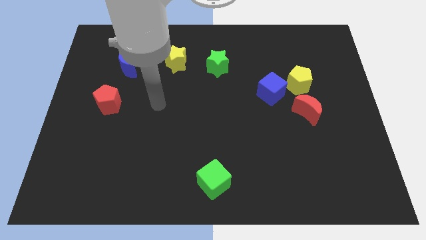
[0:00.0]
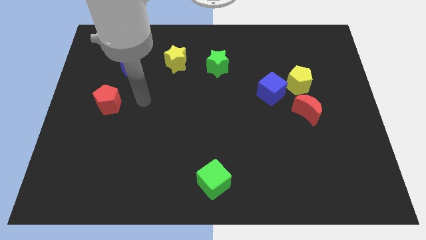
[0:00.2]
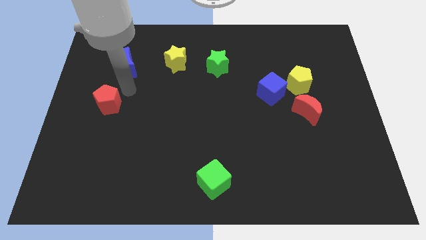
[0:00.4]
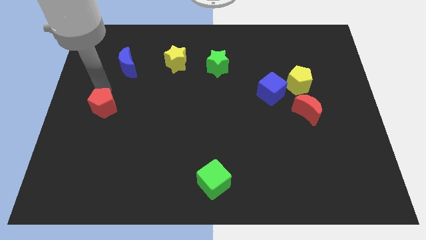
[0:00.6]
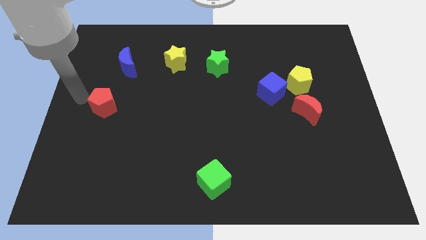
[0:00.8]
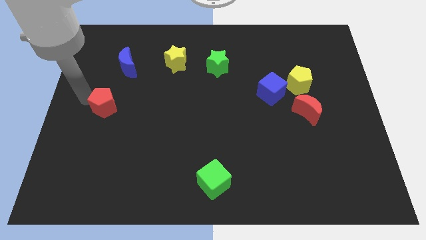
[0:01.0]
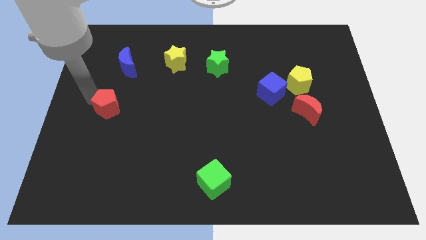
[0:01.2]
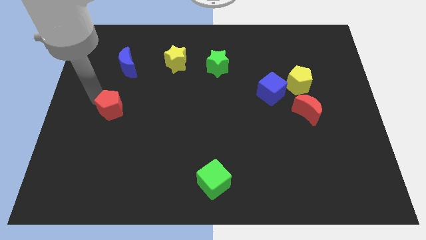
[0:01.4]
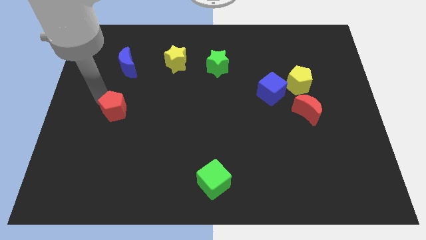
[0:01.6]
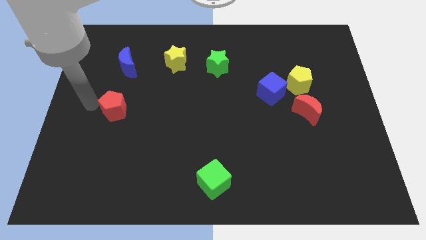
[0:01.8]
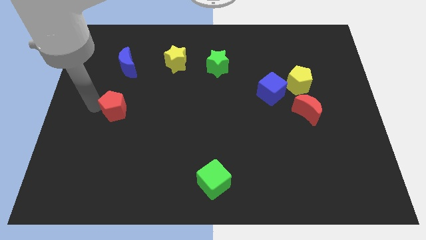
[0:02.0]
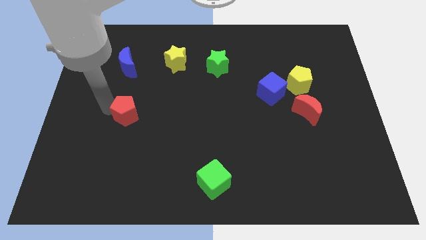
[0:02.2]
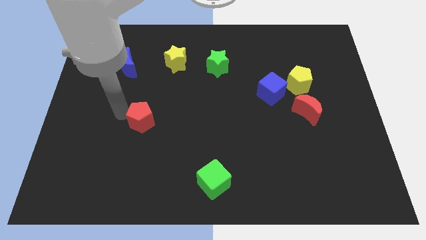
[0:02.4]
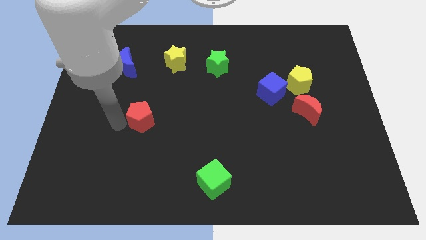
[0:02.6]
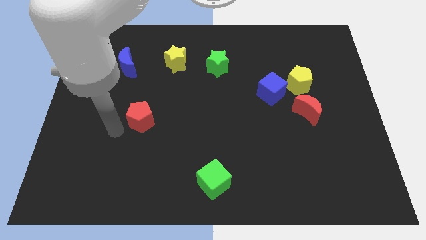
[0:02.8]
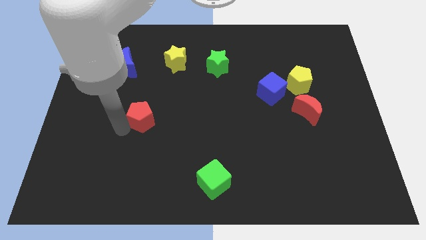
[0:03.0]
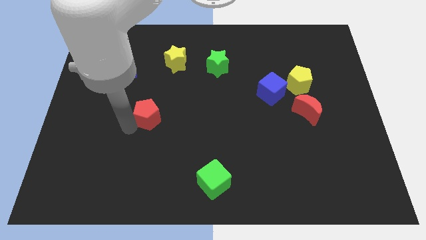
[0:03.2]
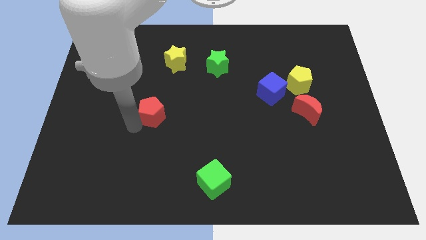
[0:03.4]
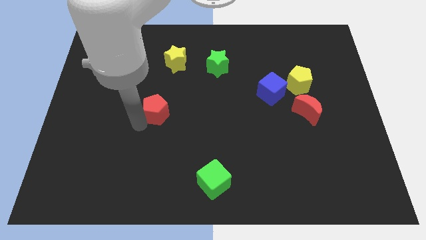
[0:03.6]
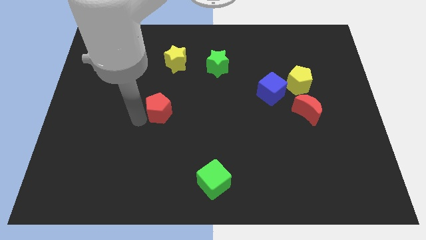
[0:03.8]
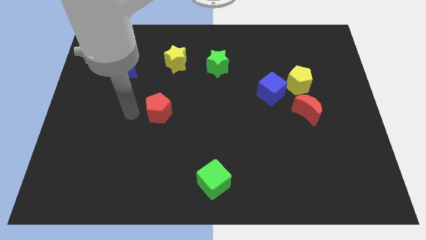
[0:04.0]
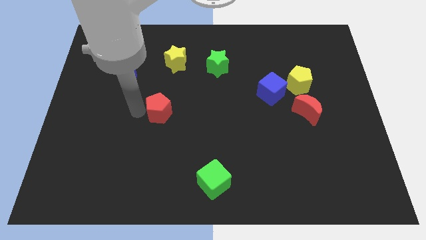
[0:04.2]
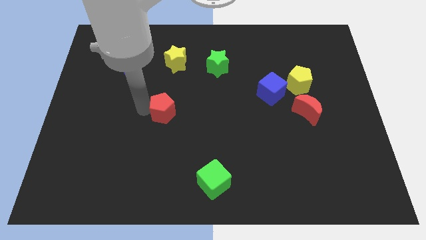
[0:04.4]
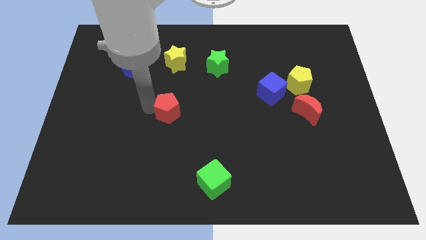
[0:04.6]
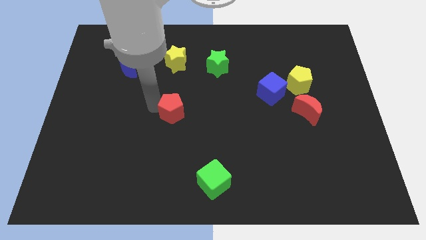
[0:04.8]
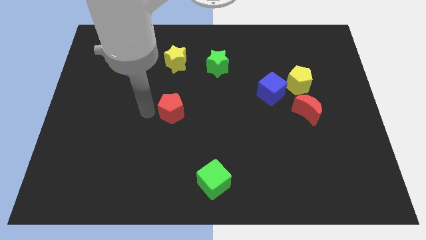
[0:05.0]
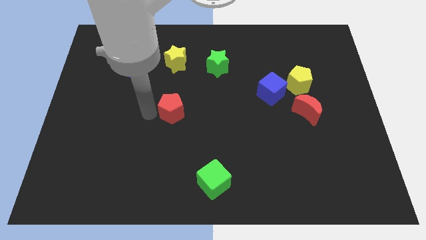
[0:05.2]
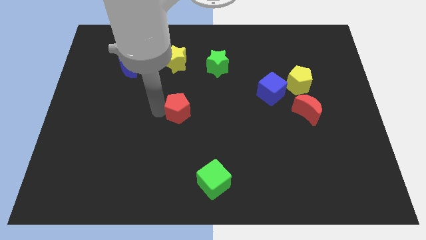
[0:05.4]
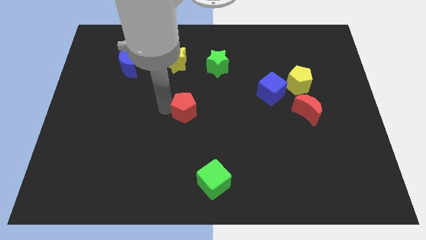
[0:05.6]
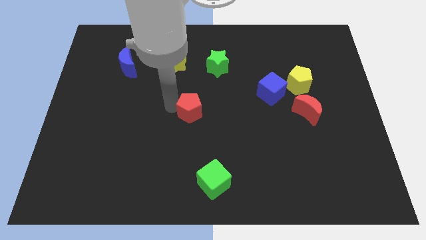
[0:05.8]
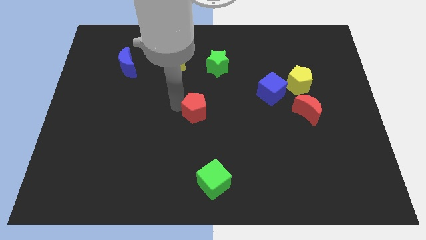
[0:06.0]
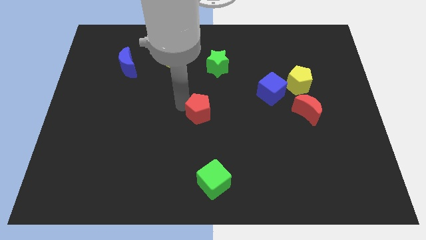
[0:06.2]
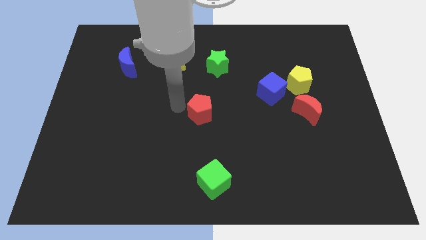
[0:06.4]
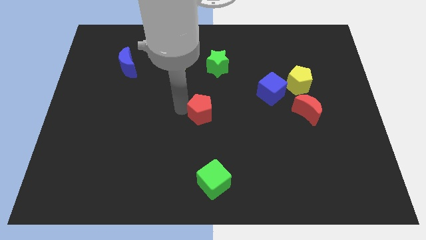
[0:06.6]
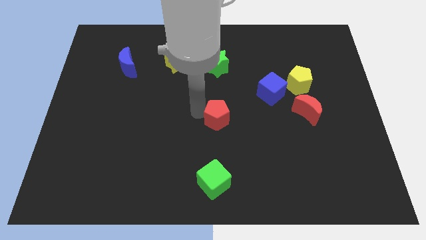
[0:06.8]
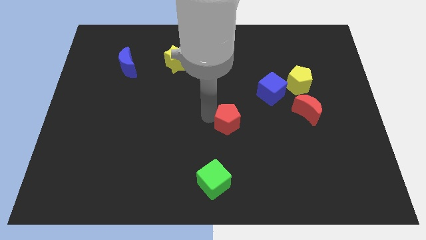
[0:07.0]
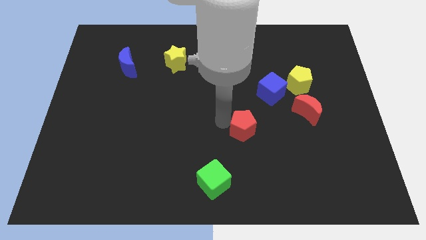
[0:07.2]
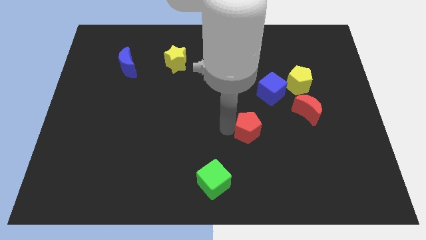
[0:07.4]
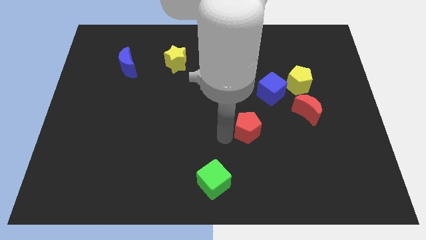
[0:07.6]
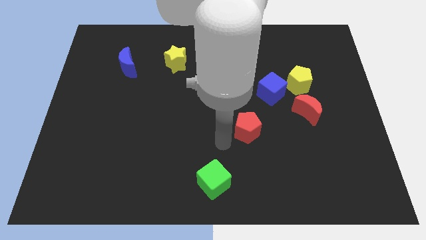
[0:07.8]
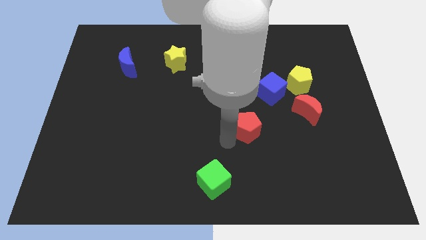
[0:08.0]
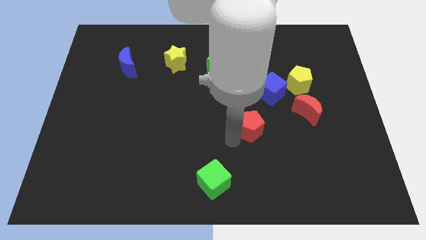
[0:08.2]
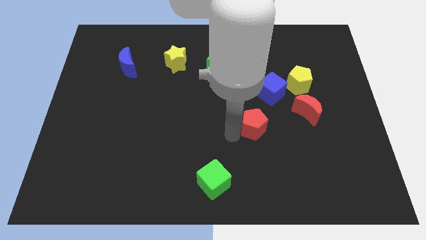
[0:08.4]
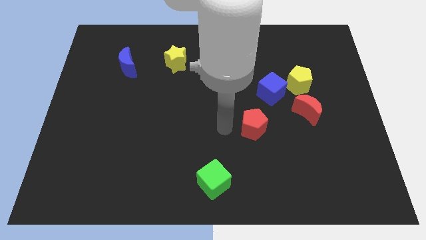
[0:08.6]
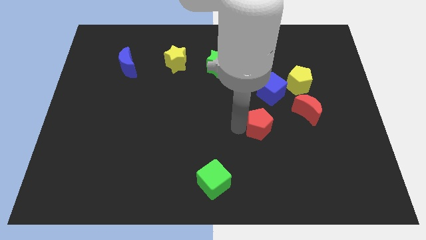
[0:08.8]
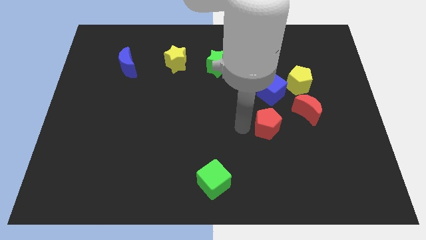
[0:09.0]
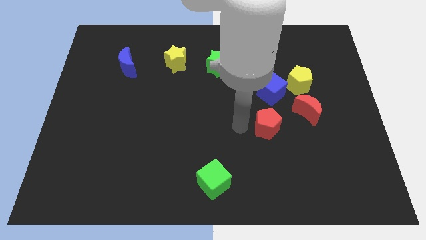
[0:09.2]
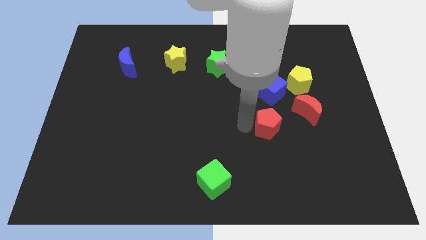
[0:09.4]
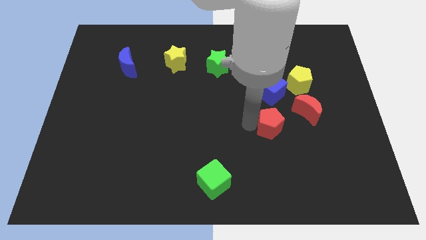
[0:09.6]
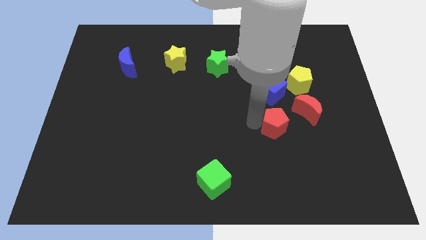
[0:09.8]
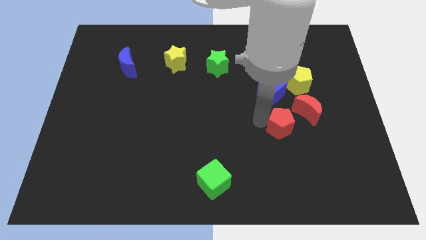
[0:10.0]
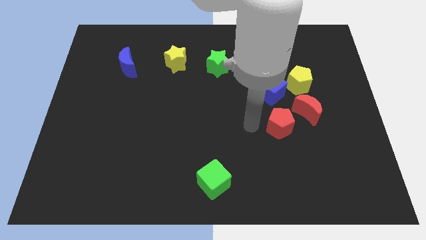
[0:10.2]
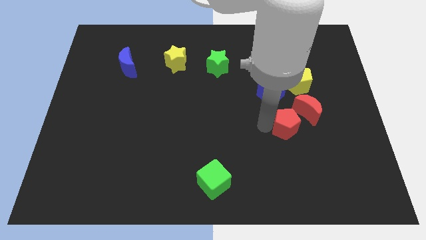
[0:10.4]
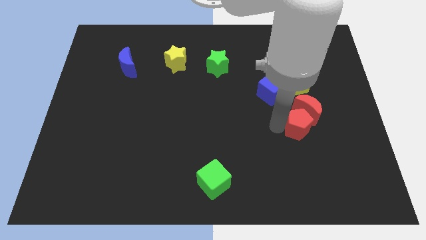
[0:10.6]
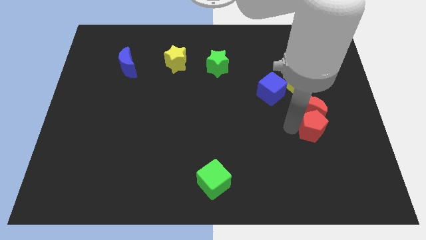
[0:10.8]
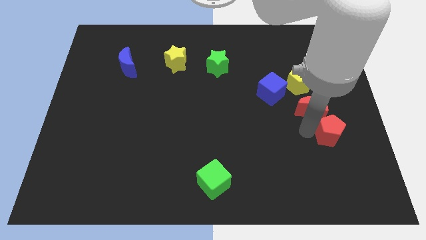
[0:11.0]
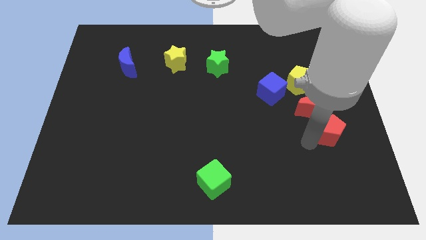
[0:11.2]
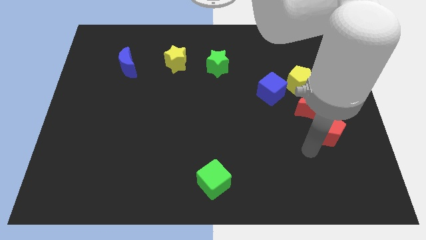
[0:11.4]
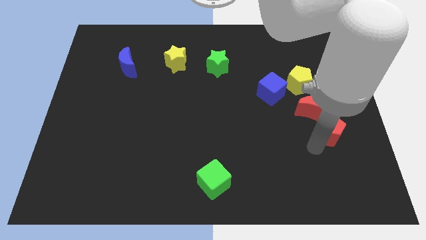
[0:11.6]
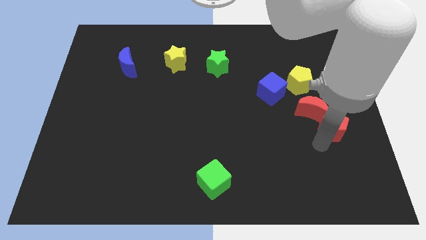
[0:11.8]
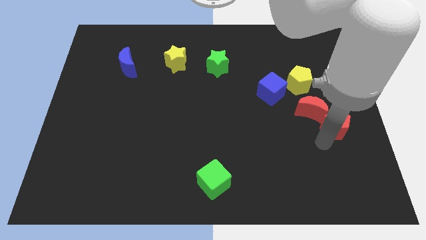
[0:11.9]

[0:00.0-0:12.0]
move the red pentagon to the right side
